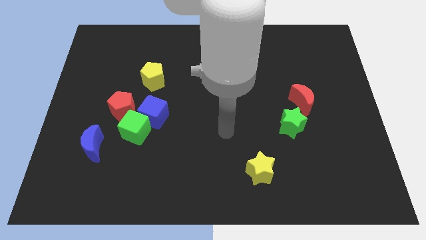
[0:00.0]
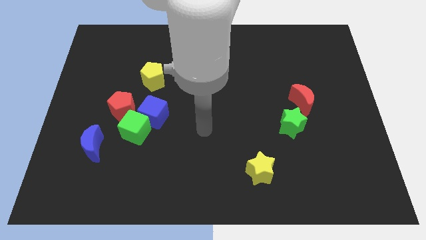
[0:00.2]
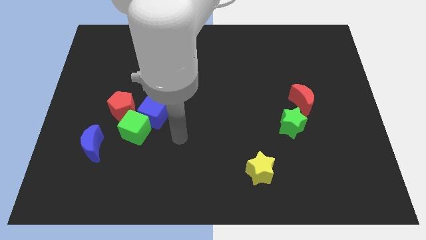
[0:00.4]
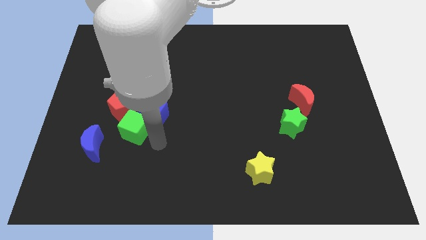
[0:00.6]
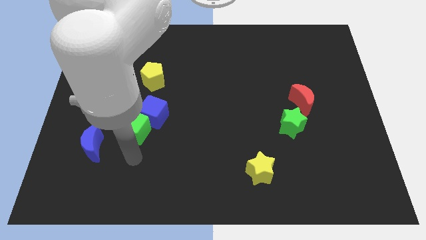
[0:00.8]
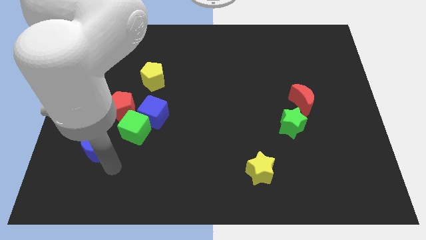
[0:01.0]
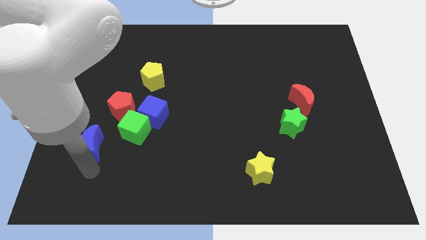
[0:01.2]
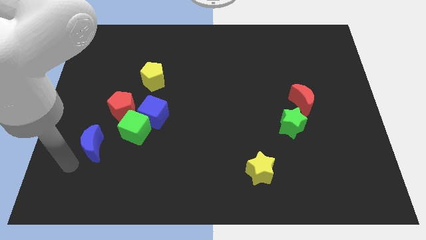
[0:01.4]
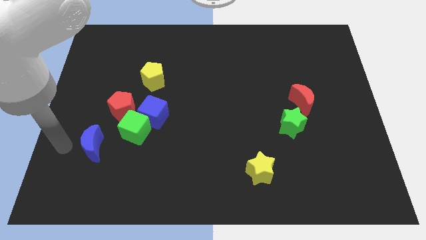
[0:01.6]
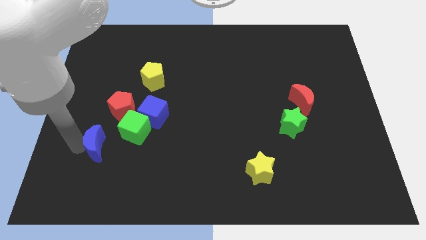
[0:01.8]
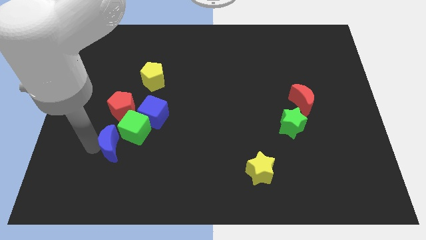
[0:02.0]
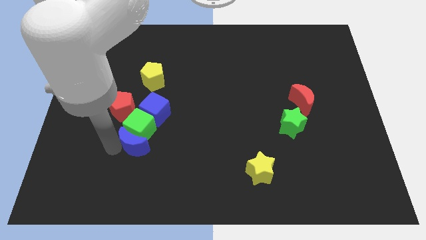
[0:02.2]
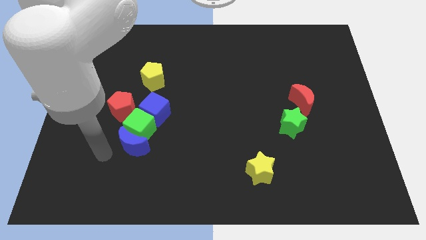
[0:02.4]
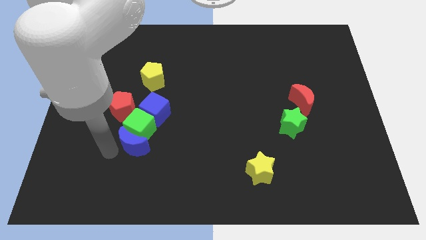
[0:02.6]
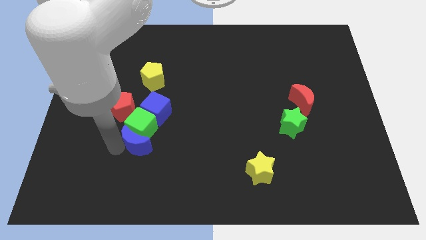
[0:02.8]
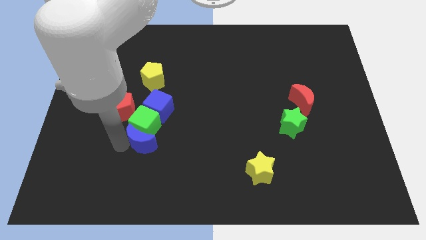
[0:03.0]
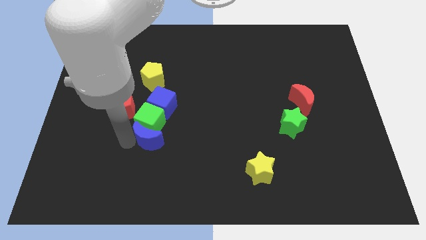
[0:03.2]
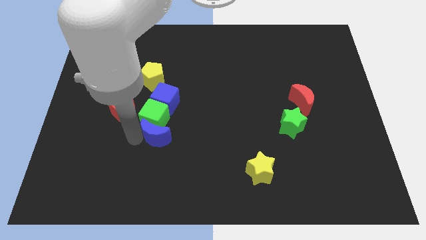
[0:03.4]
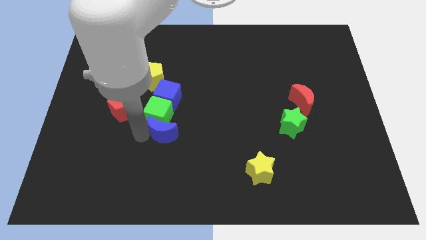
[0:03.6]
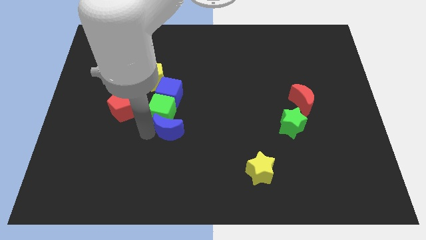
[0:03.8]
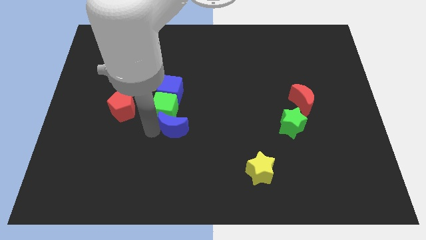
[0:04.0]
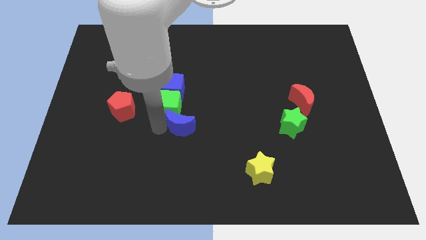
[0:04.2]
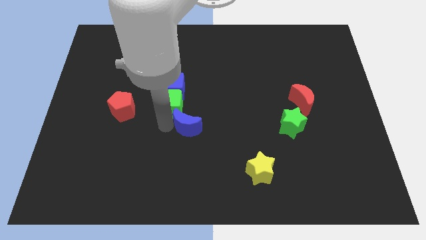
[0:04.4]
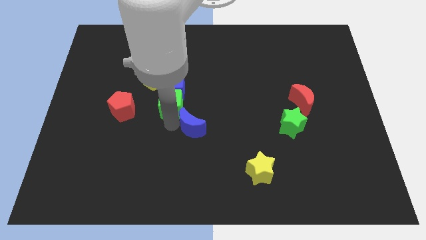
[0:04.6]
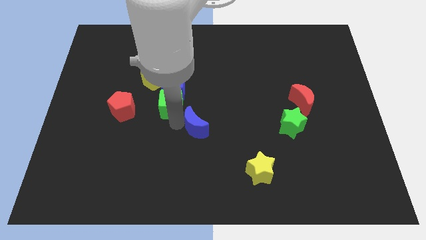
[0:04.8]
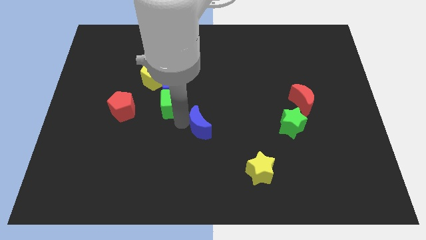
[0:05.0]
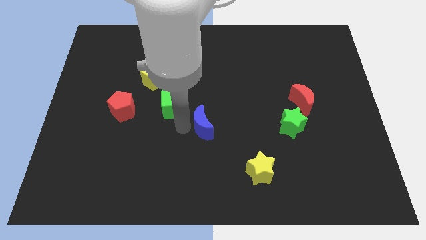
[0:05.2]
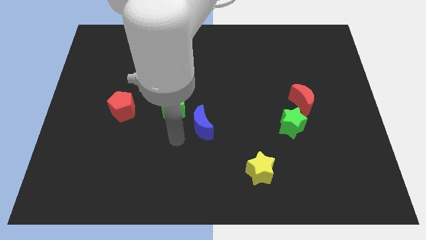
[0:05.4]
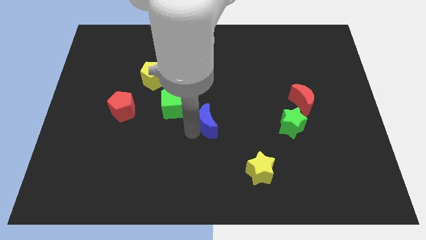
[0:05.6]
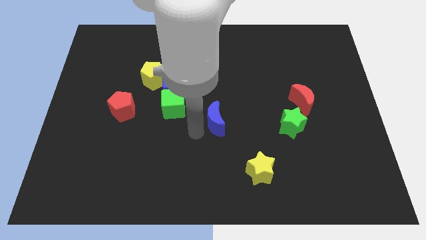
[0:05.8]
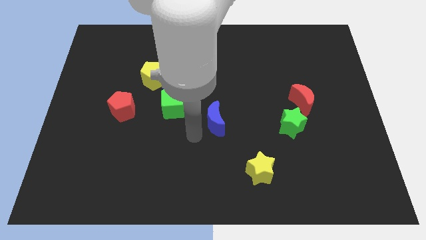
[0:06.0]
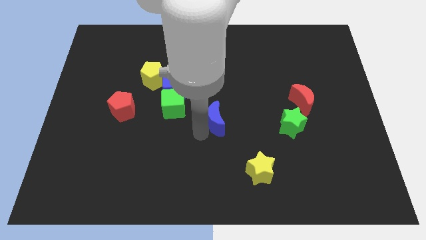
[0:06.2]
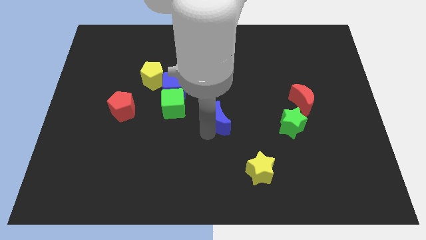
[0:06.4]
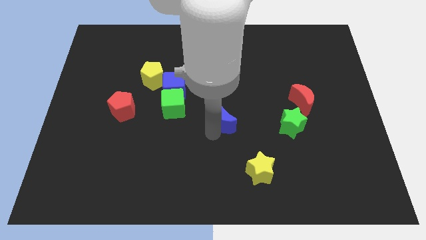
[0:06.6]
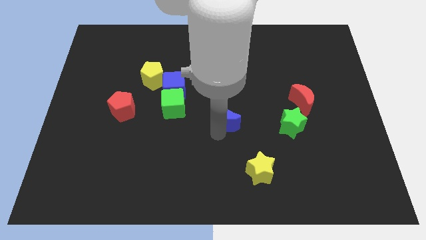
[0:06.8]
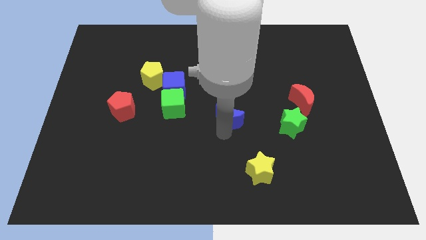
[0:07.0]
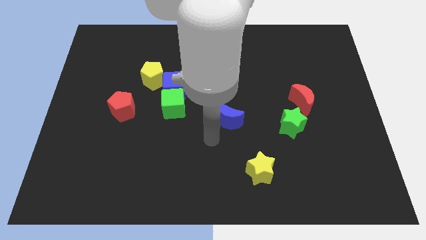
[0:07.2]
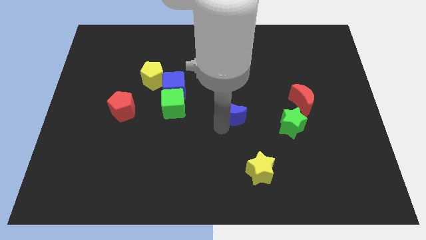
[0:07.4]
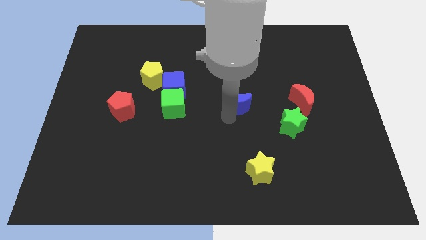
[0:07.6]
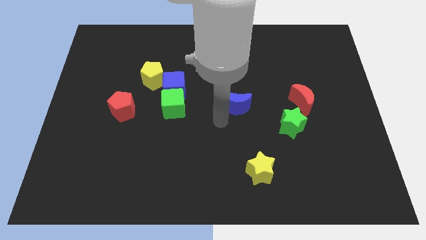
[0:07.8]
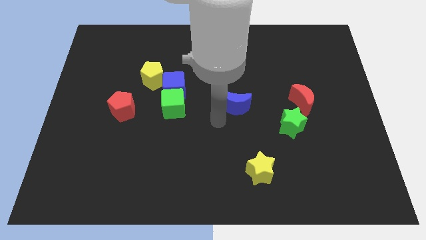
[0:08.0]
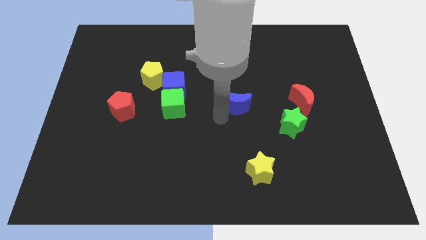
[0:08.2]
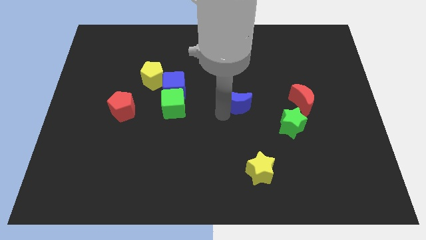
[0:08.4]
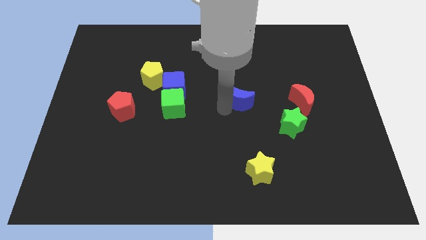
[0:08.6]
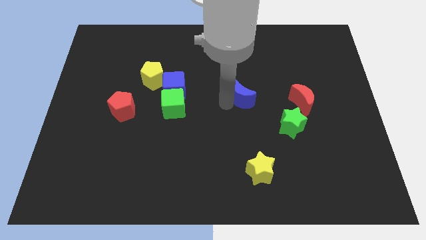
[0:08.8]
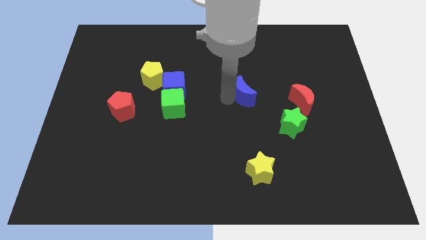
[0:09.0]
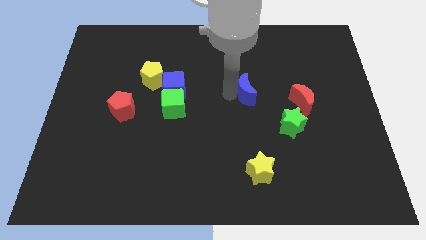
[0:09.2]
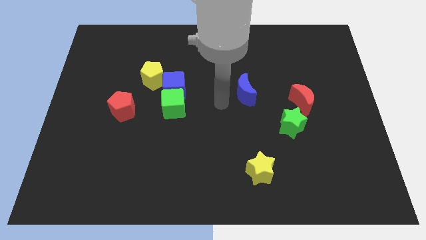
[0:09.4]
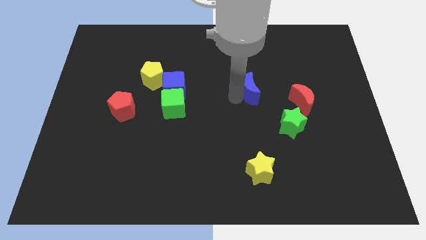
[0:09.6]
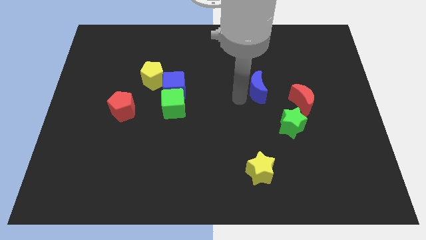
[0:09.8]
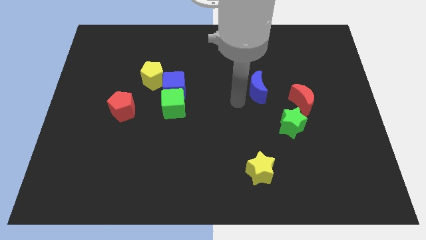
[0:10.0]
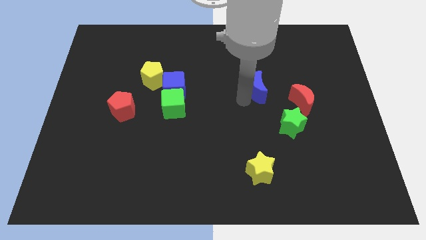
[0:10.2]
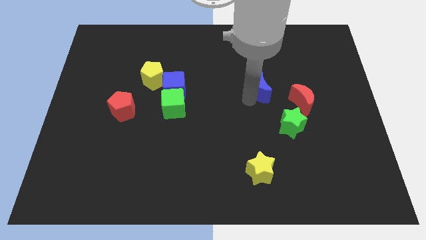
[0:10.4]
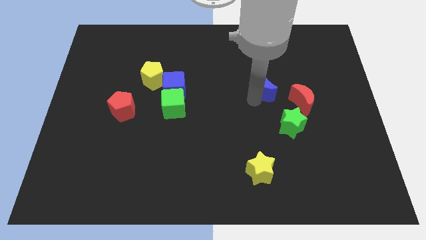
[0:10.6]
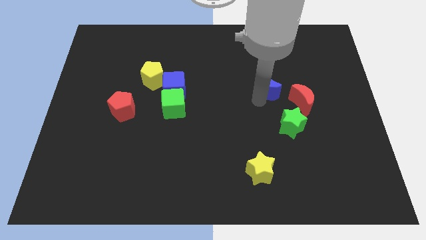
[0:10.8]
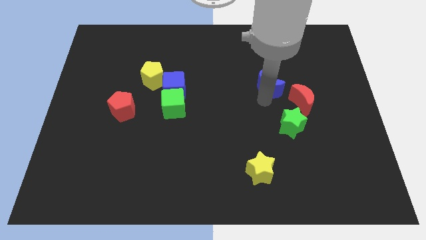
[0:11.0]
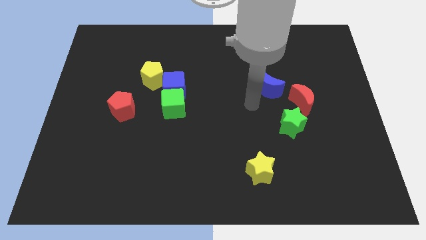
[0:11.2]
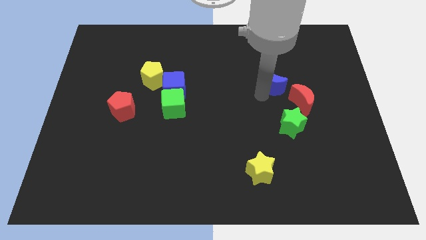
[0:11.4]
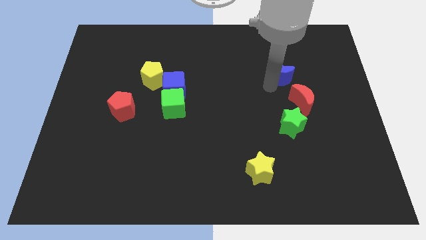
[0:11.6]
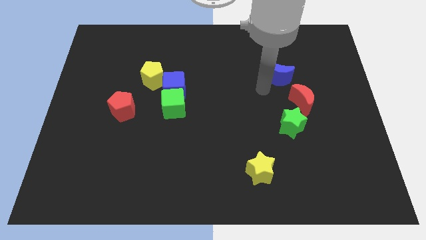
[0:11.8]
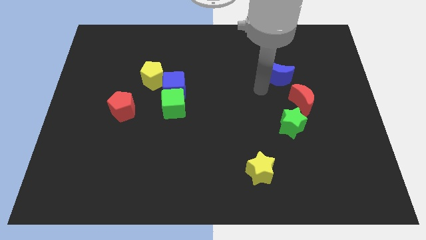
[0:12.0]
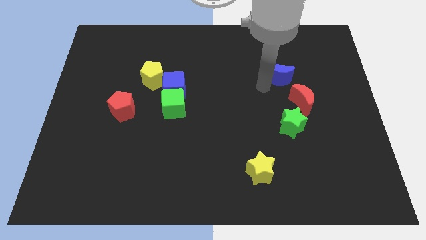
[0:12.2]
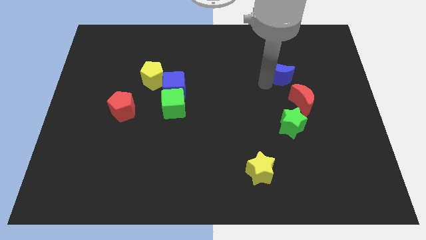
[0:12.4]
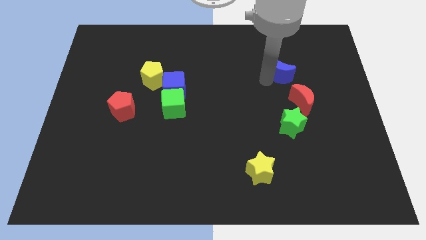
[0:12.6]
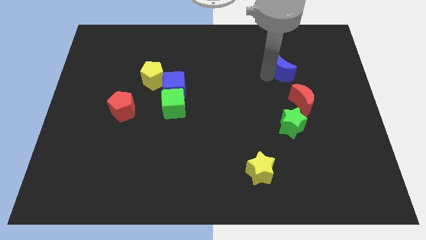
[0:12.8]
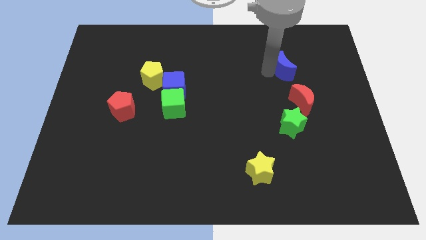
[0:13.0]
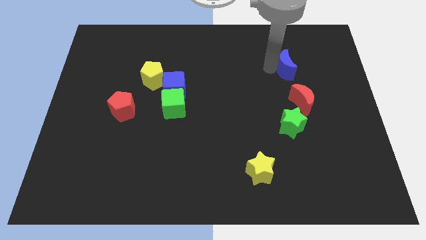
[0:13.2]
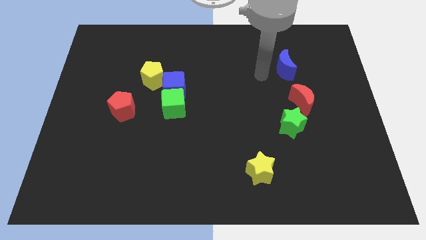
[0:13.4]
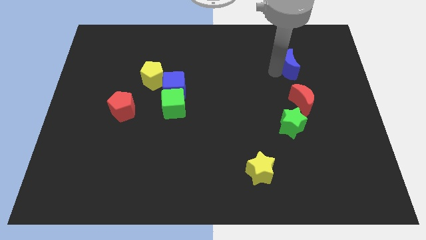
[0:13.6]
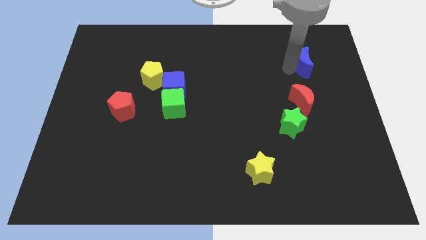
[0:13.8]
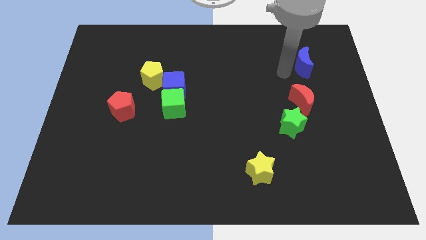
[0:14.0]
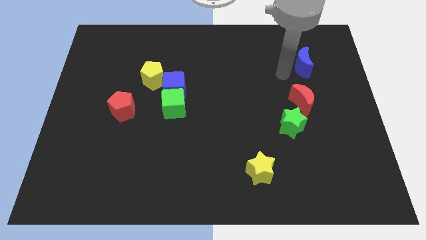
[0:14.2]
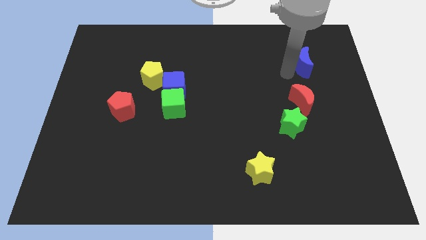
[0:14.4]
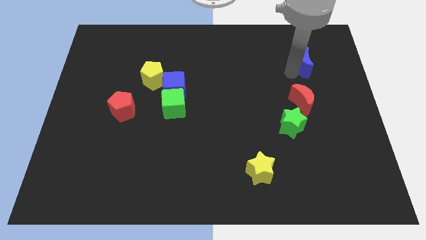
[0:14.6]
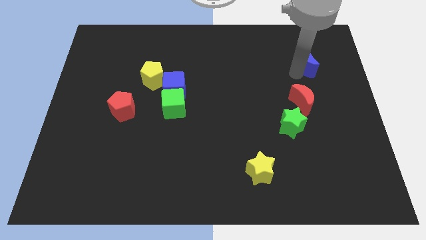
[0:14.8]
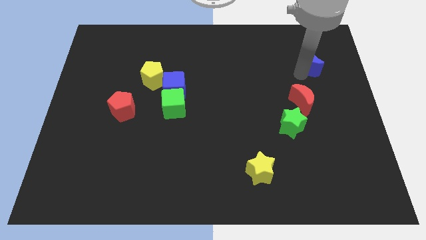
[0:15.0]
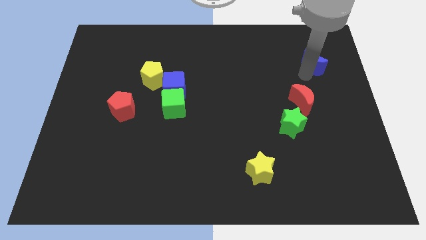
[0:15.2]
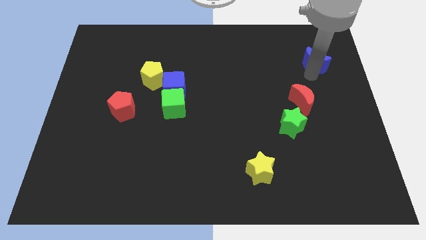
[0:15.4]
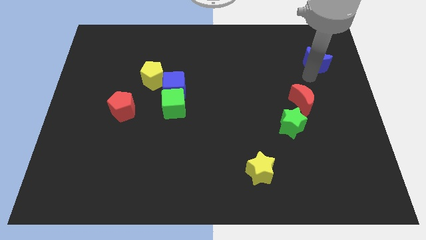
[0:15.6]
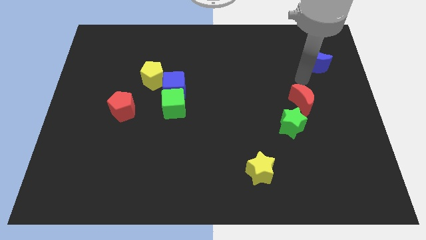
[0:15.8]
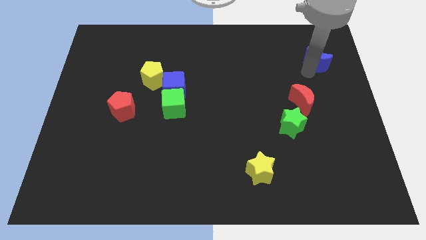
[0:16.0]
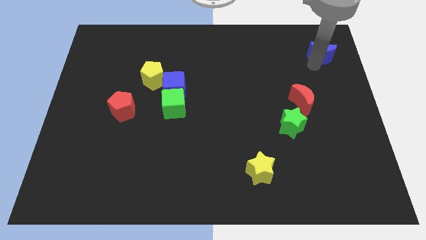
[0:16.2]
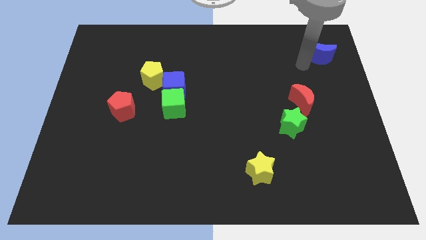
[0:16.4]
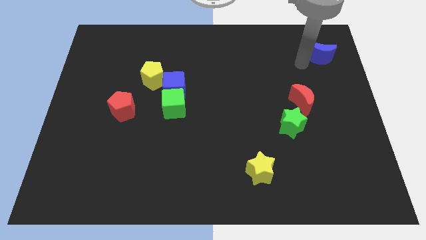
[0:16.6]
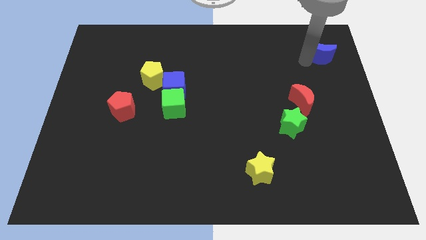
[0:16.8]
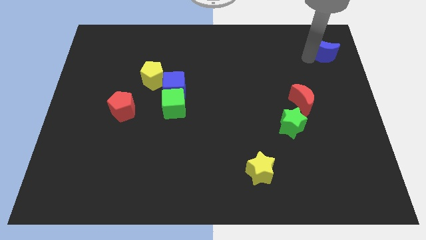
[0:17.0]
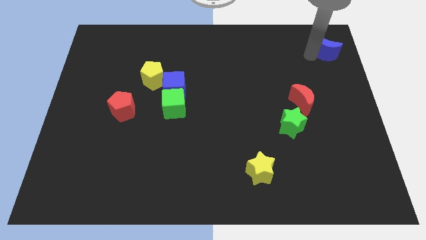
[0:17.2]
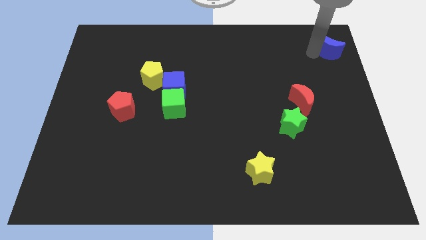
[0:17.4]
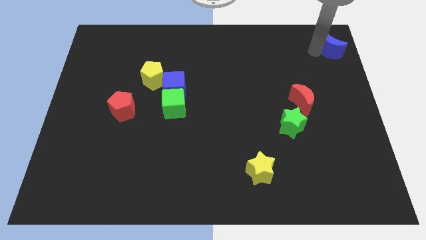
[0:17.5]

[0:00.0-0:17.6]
slide the blue moon to the top right corner
